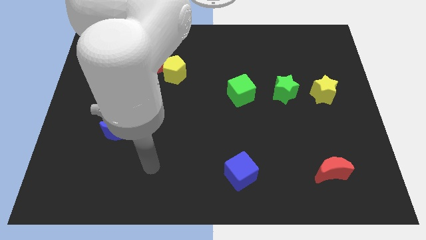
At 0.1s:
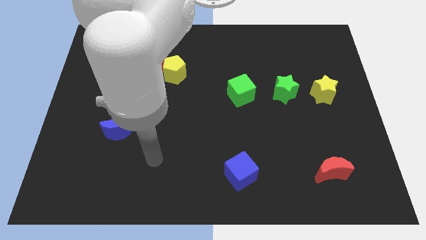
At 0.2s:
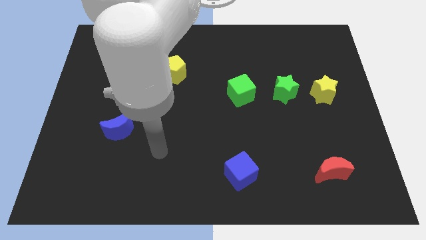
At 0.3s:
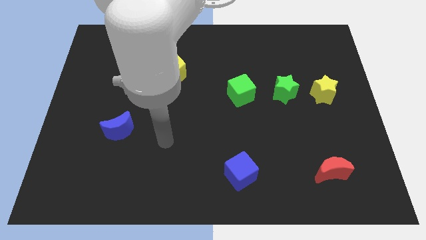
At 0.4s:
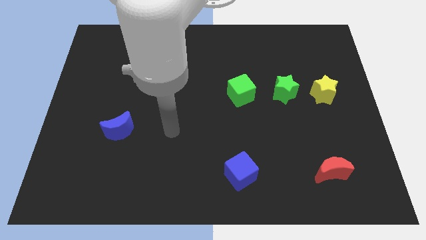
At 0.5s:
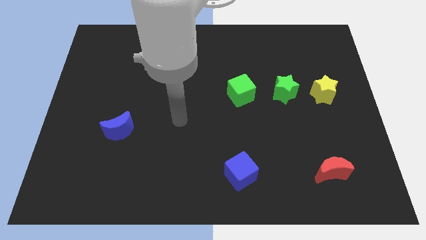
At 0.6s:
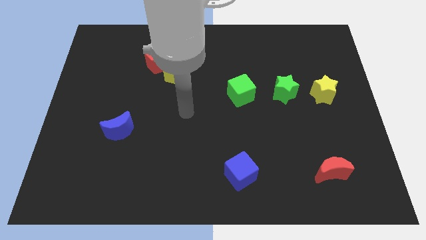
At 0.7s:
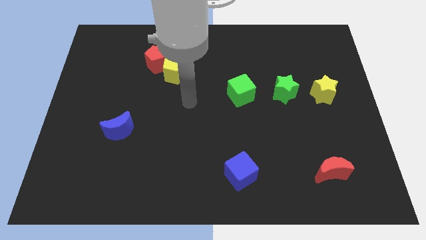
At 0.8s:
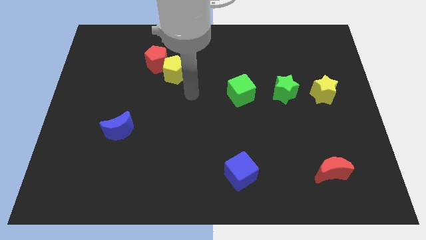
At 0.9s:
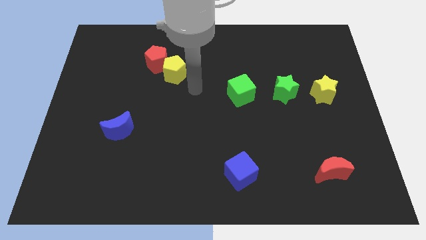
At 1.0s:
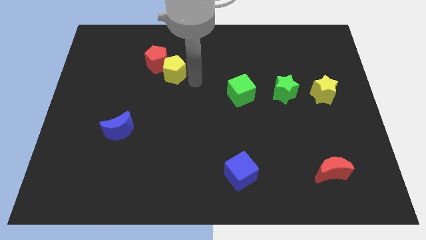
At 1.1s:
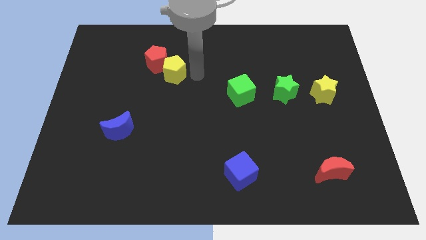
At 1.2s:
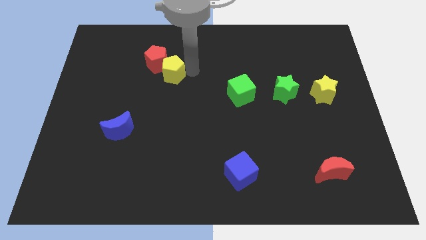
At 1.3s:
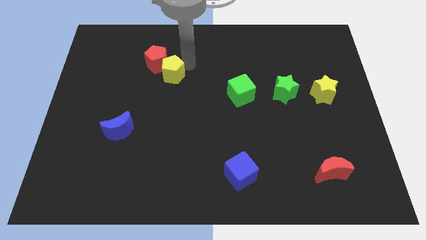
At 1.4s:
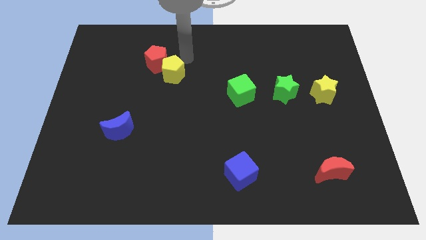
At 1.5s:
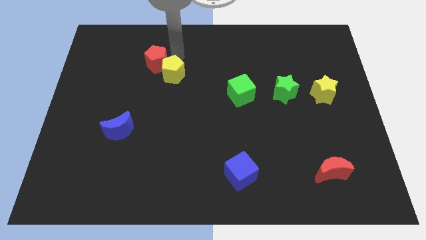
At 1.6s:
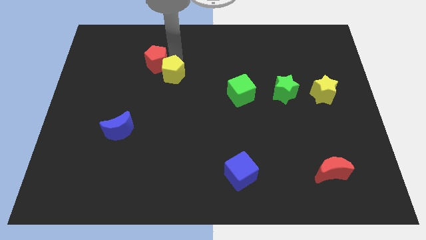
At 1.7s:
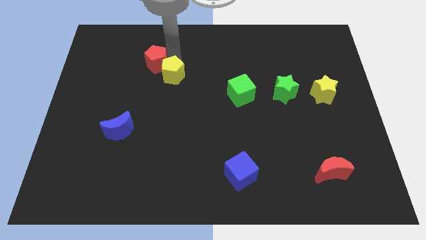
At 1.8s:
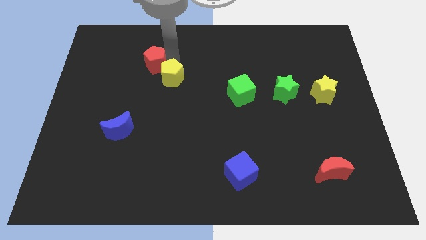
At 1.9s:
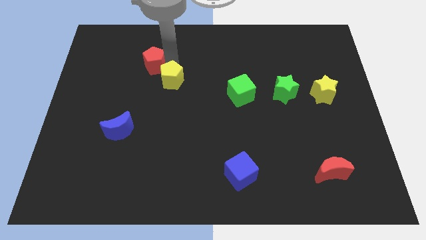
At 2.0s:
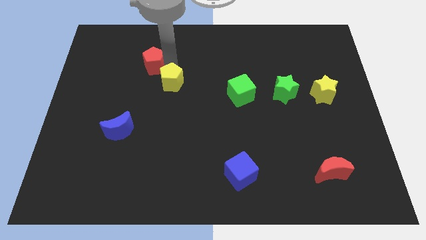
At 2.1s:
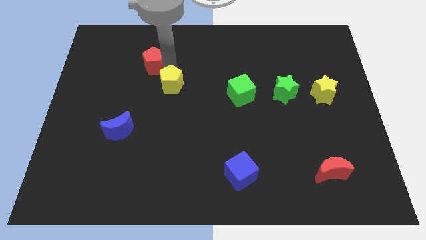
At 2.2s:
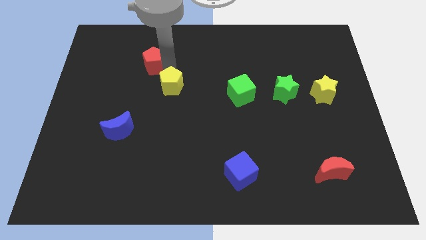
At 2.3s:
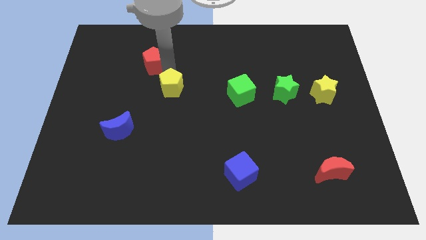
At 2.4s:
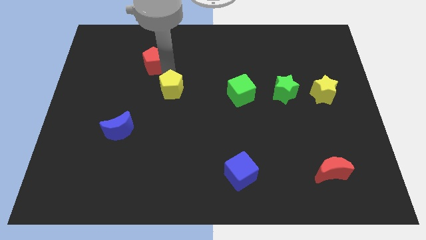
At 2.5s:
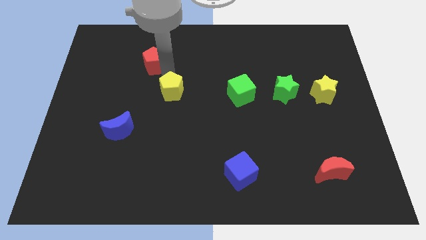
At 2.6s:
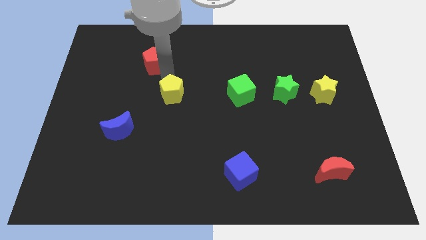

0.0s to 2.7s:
push the yellow pentagon downwards a little bit

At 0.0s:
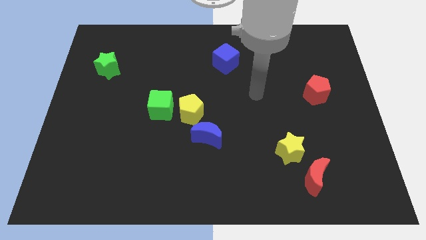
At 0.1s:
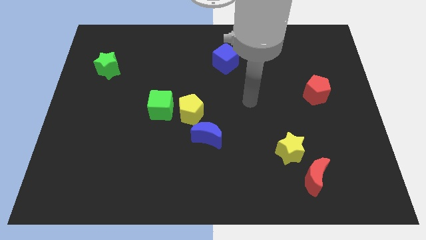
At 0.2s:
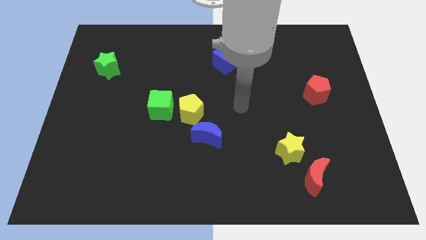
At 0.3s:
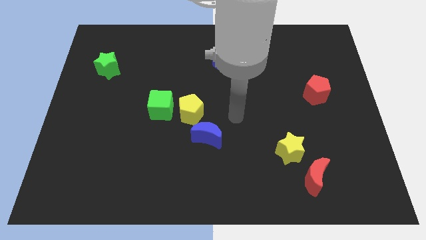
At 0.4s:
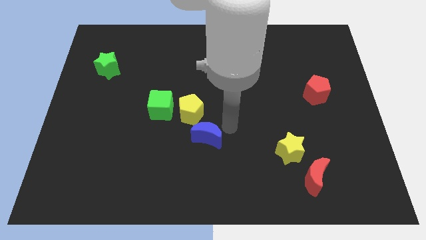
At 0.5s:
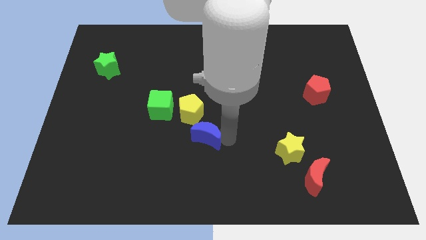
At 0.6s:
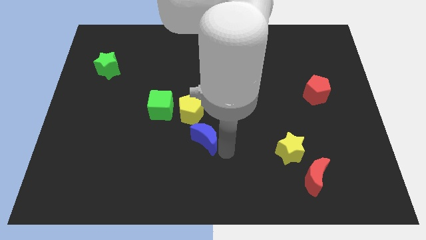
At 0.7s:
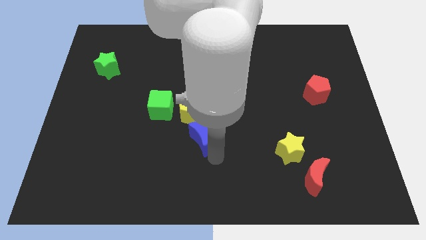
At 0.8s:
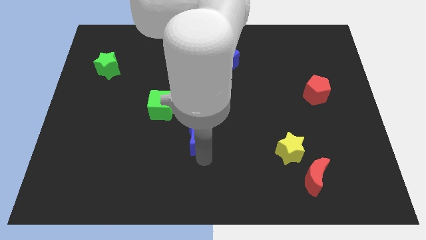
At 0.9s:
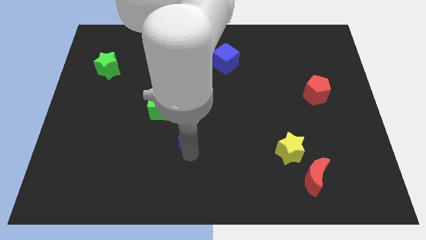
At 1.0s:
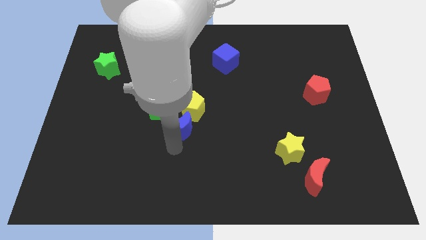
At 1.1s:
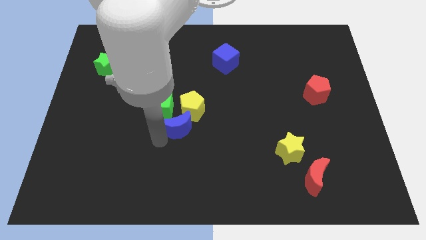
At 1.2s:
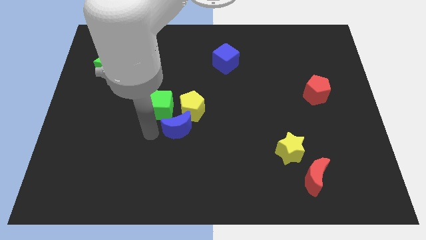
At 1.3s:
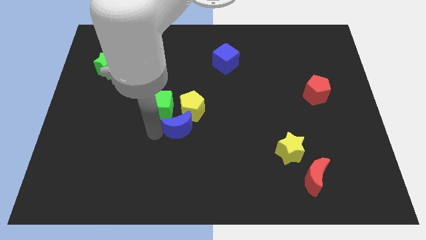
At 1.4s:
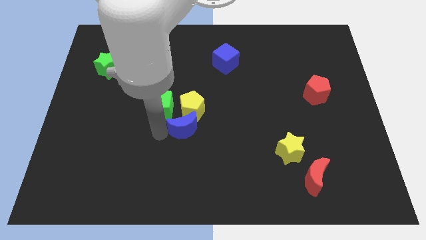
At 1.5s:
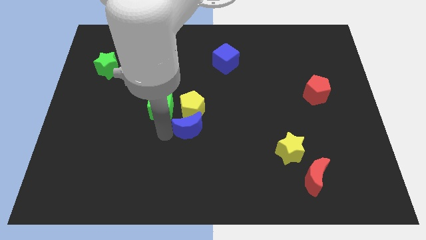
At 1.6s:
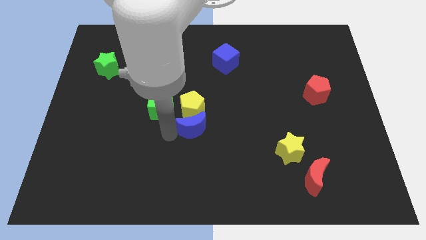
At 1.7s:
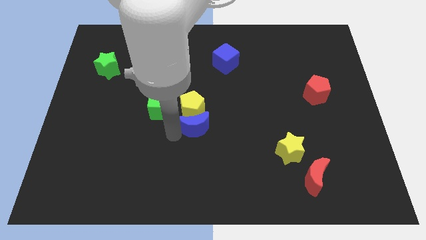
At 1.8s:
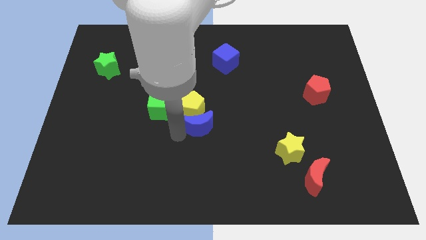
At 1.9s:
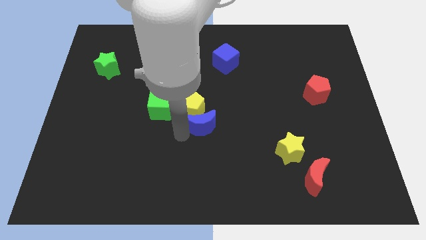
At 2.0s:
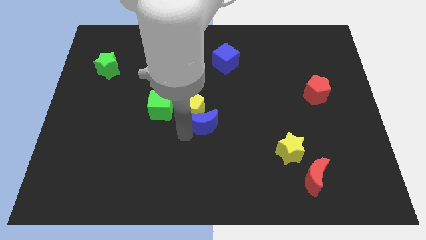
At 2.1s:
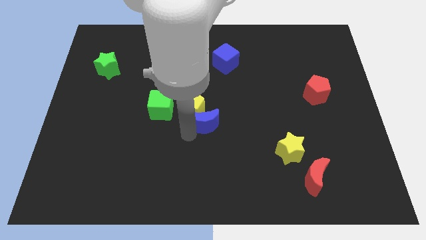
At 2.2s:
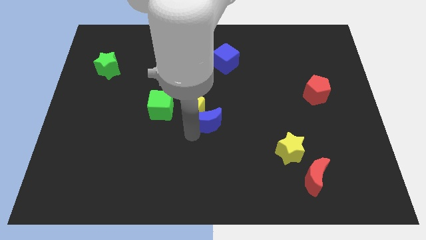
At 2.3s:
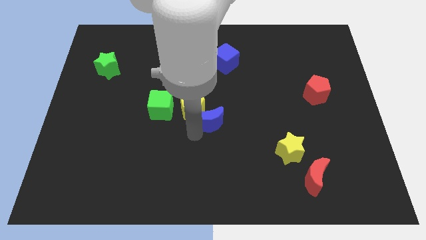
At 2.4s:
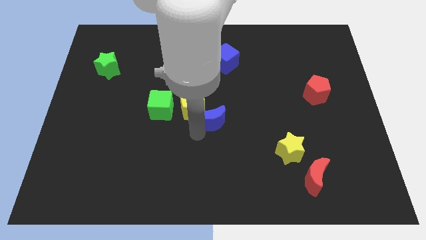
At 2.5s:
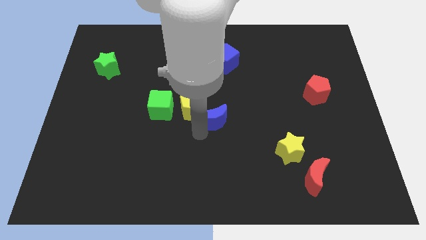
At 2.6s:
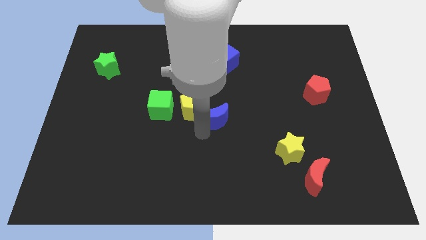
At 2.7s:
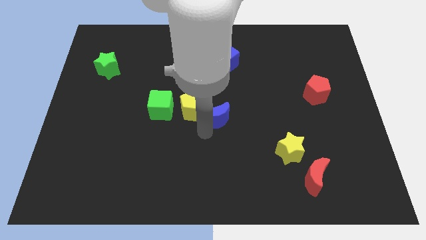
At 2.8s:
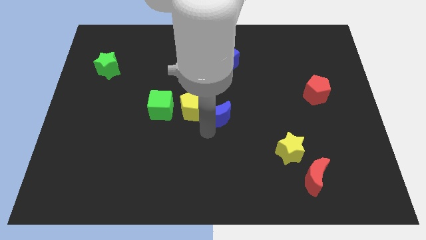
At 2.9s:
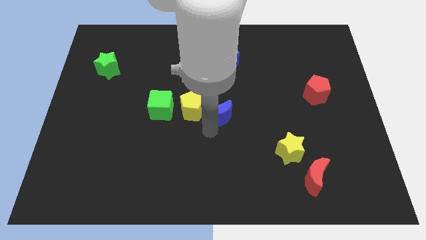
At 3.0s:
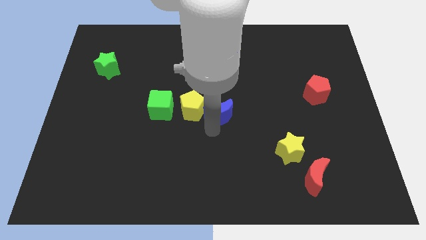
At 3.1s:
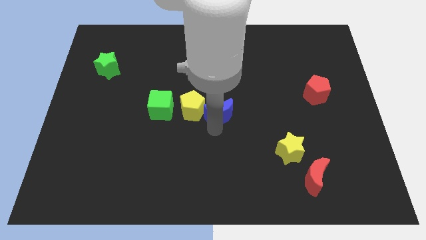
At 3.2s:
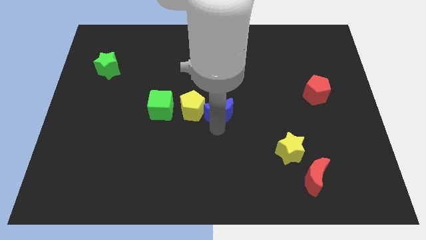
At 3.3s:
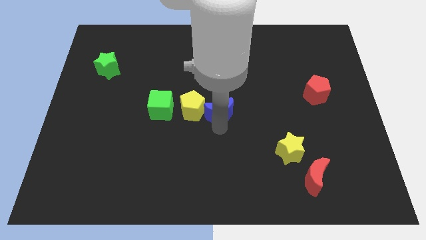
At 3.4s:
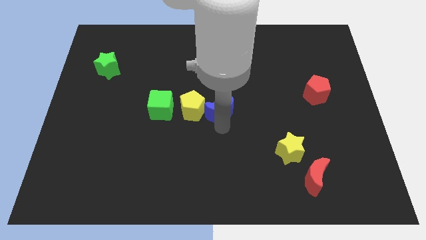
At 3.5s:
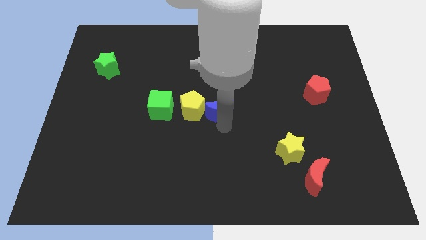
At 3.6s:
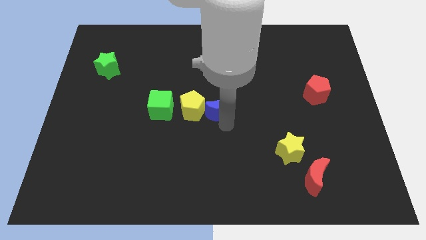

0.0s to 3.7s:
slide the blue moon up and right diagonally a little bit

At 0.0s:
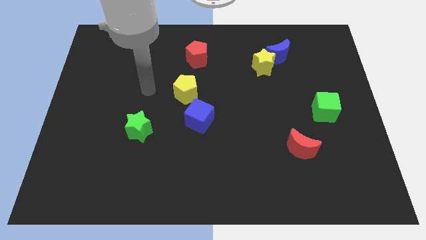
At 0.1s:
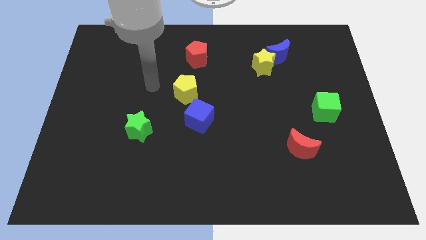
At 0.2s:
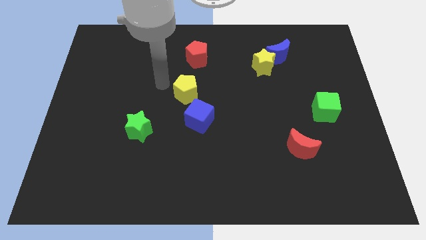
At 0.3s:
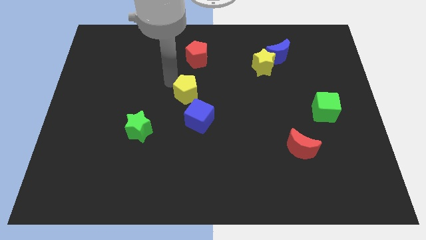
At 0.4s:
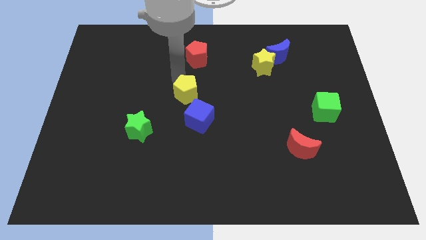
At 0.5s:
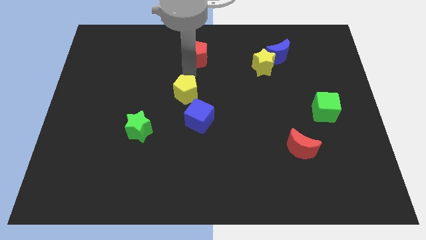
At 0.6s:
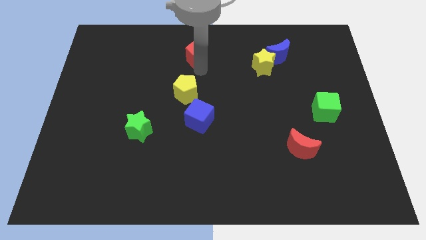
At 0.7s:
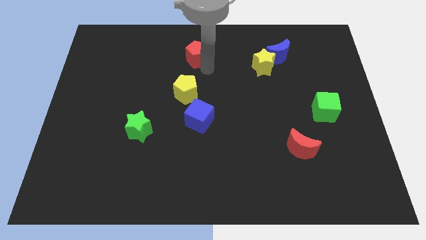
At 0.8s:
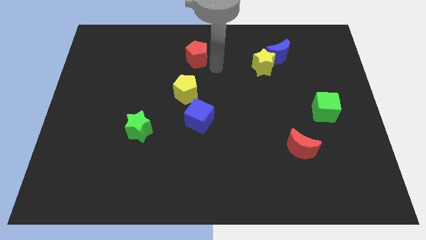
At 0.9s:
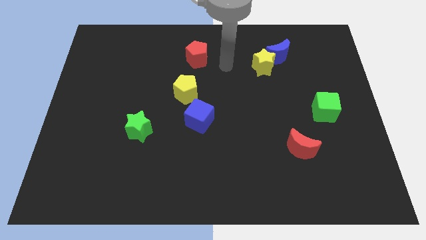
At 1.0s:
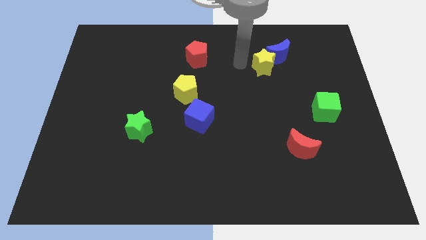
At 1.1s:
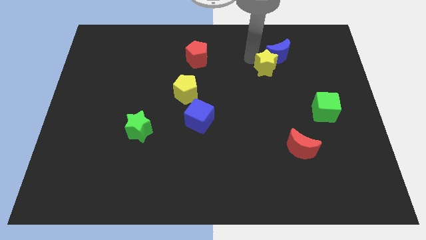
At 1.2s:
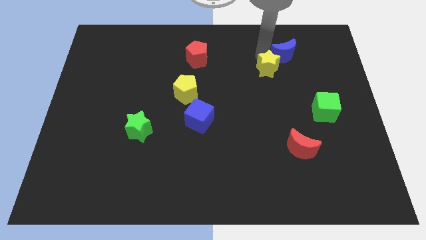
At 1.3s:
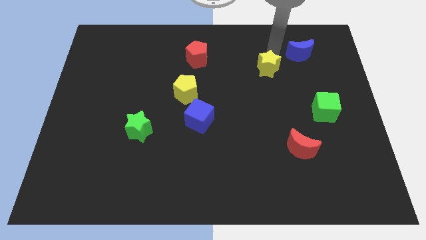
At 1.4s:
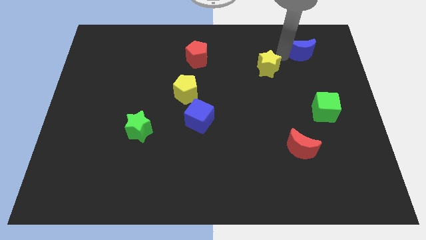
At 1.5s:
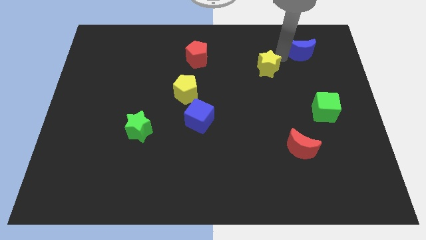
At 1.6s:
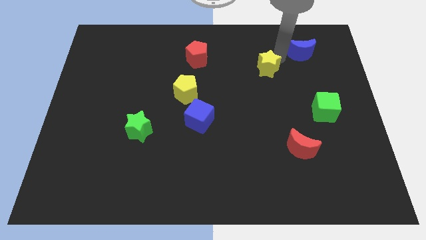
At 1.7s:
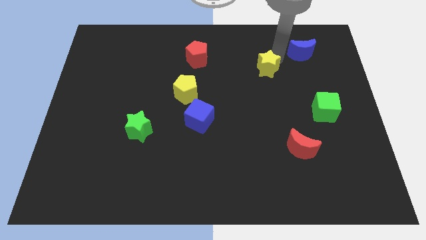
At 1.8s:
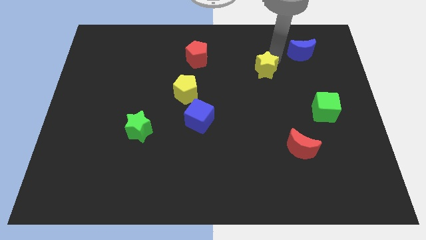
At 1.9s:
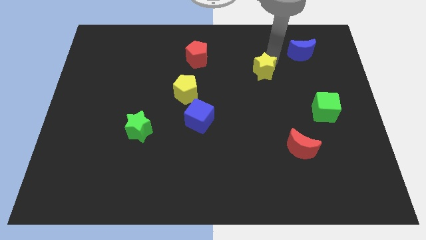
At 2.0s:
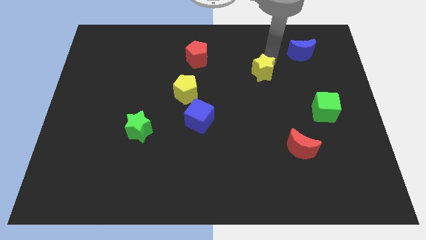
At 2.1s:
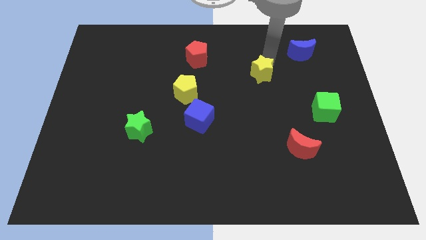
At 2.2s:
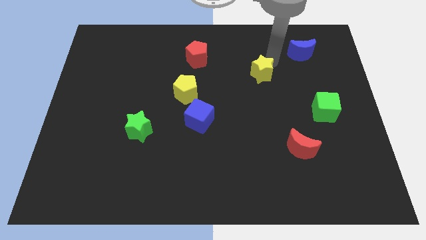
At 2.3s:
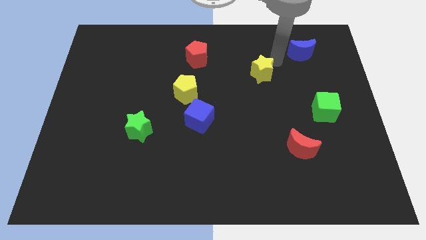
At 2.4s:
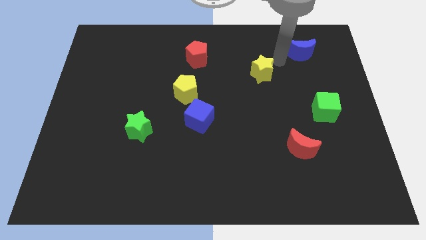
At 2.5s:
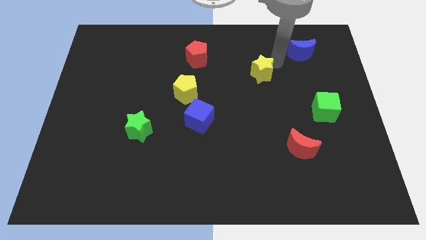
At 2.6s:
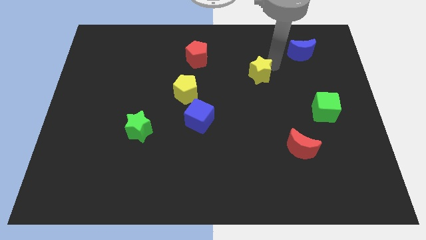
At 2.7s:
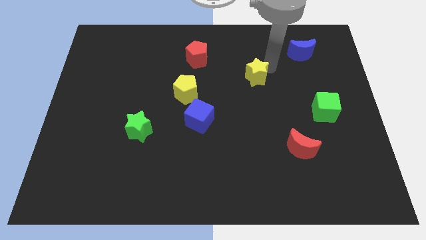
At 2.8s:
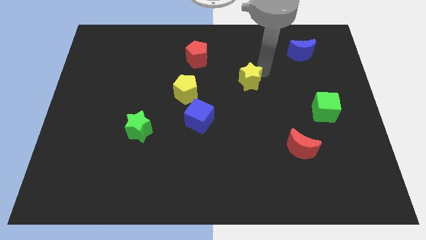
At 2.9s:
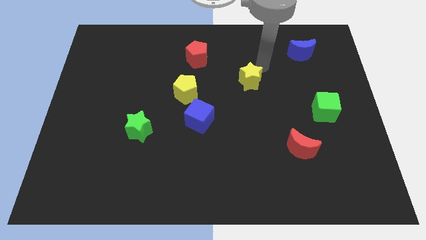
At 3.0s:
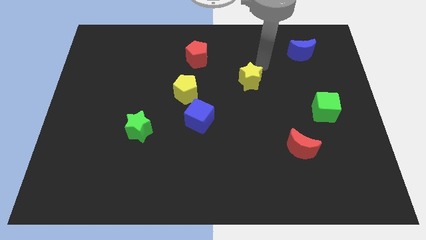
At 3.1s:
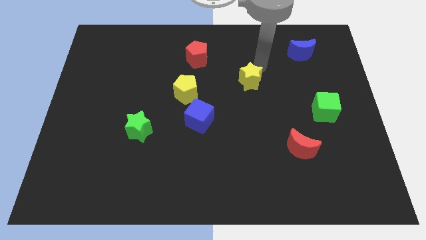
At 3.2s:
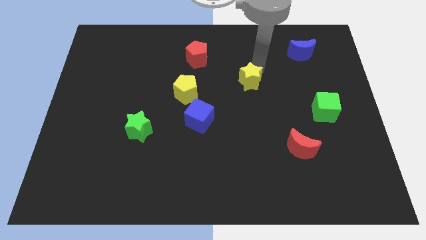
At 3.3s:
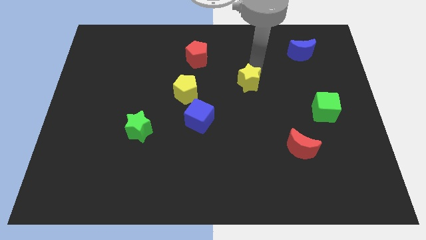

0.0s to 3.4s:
move the yellow star somewhat downwards and then to the left
